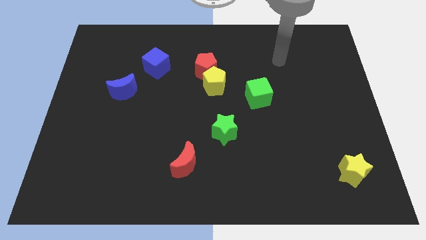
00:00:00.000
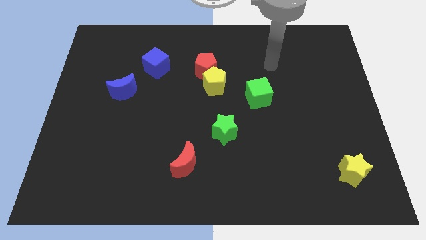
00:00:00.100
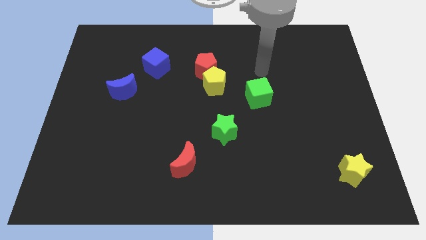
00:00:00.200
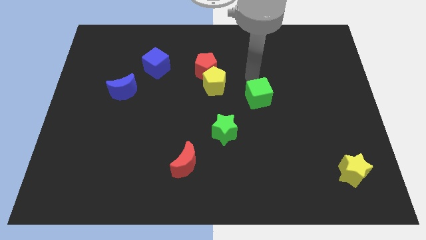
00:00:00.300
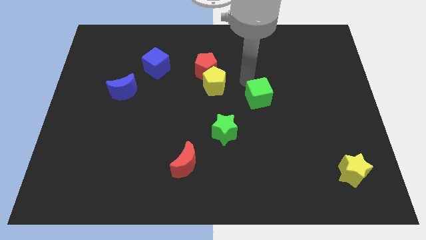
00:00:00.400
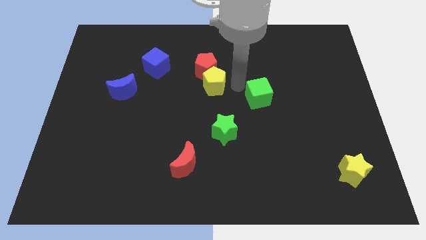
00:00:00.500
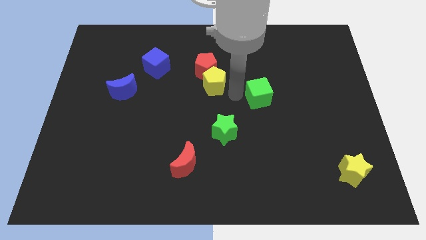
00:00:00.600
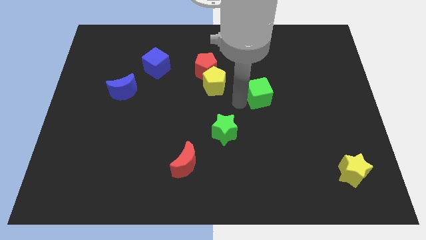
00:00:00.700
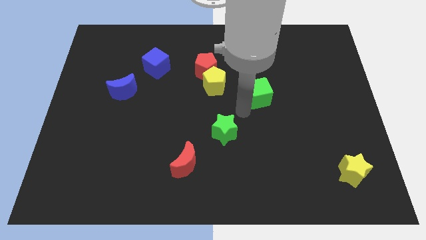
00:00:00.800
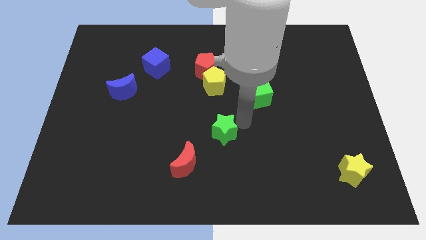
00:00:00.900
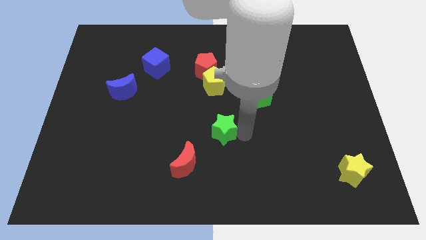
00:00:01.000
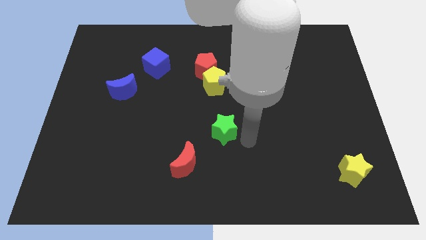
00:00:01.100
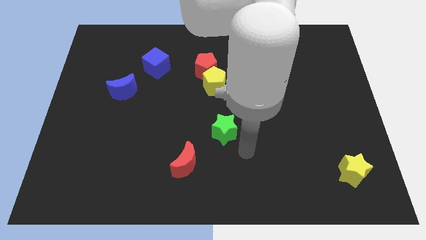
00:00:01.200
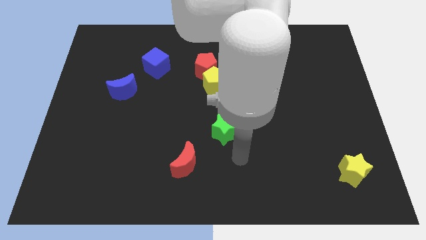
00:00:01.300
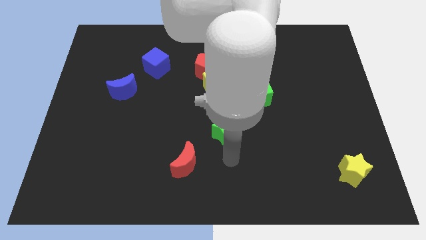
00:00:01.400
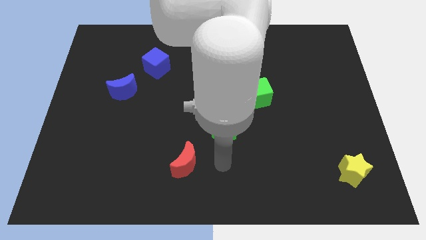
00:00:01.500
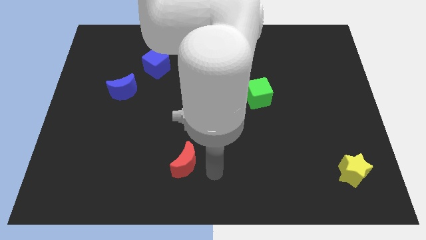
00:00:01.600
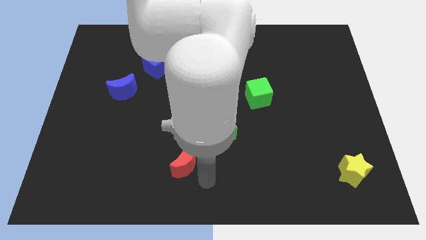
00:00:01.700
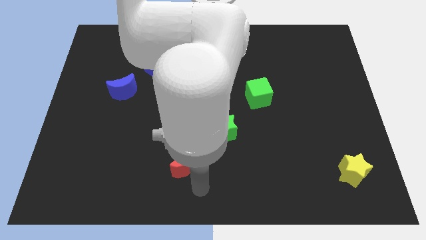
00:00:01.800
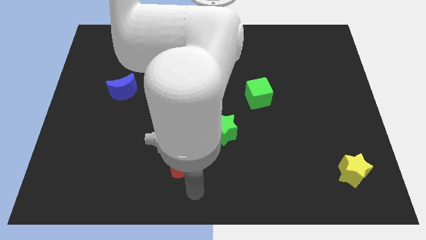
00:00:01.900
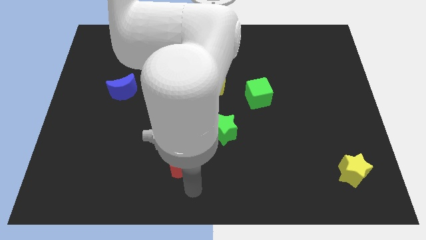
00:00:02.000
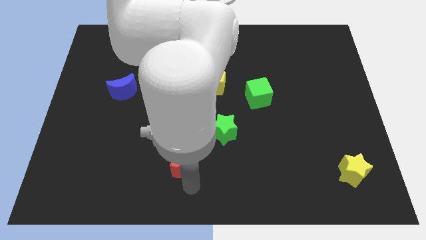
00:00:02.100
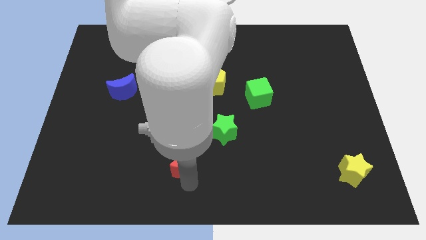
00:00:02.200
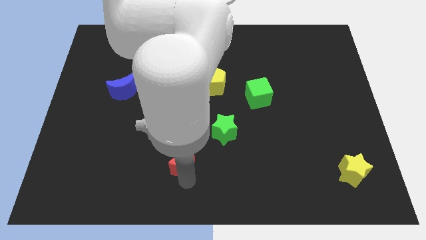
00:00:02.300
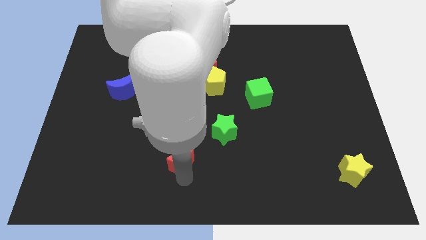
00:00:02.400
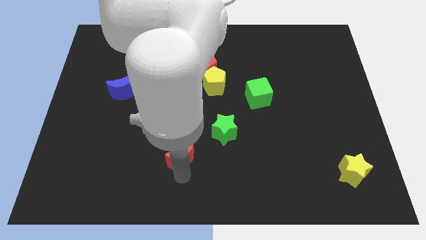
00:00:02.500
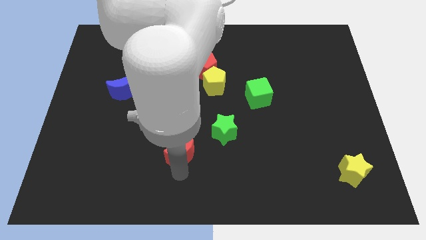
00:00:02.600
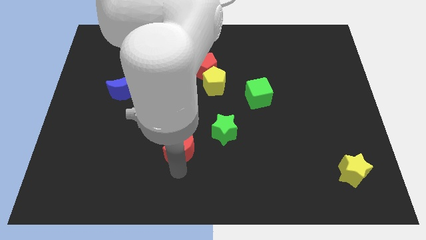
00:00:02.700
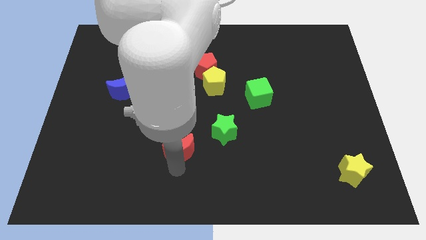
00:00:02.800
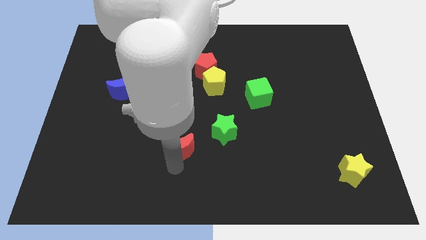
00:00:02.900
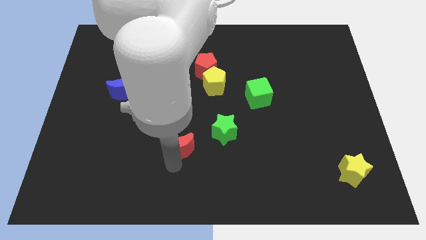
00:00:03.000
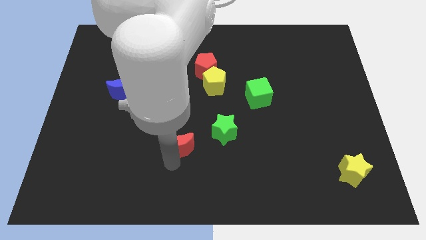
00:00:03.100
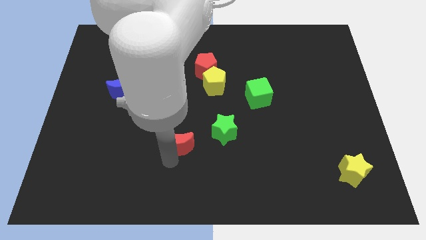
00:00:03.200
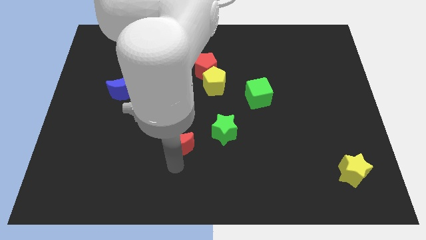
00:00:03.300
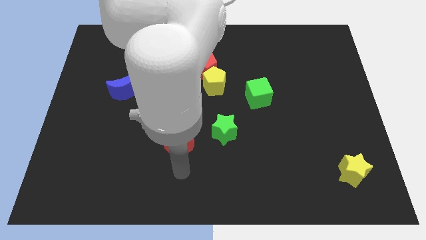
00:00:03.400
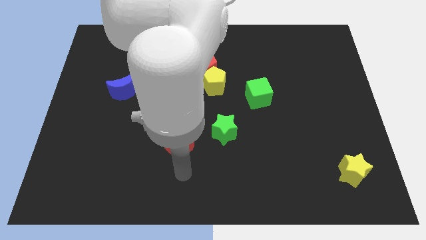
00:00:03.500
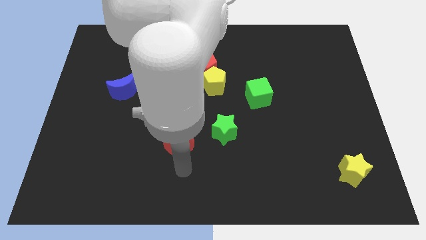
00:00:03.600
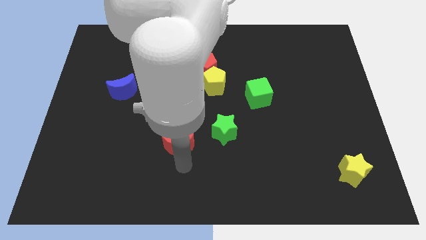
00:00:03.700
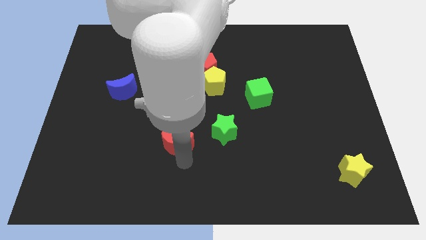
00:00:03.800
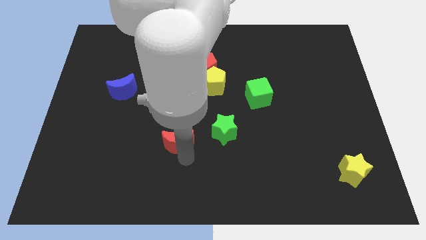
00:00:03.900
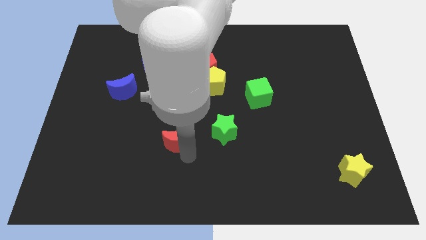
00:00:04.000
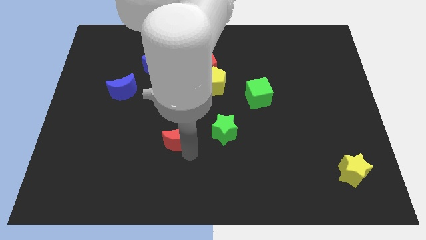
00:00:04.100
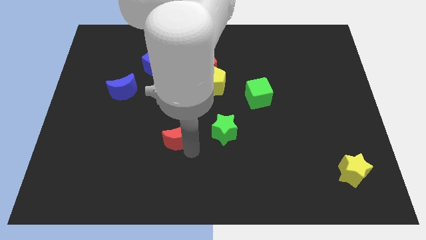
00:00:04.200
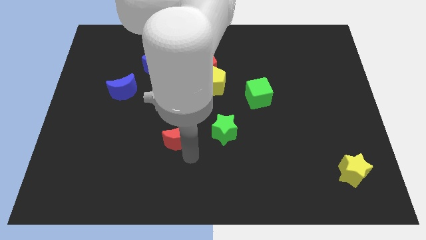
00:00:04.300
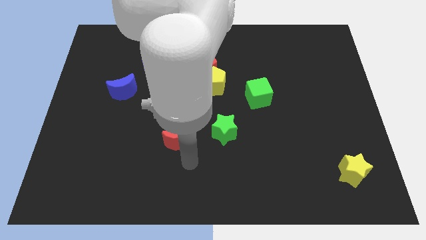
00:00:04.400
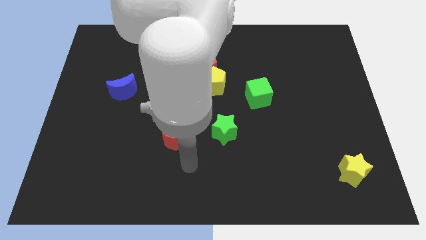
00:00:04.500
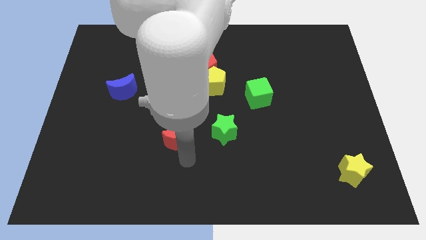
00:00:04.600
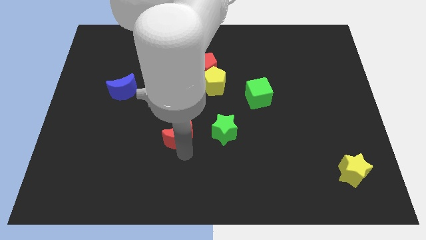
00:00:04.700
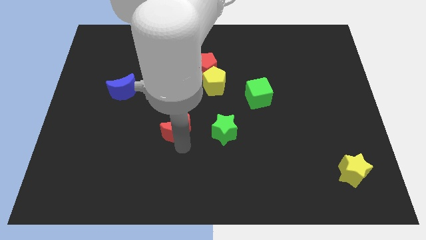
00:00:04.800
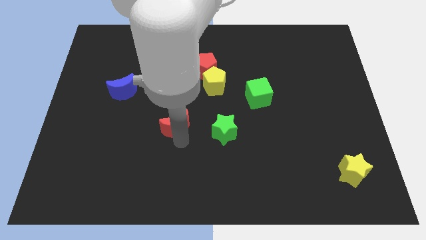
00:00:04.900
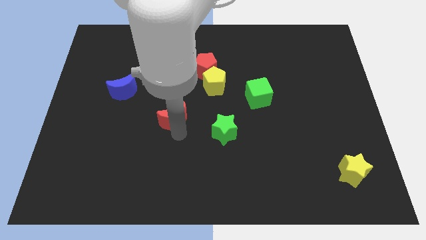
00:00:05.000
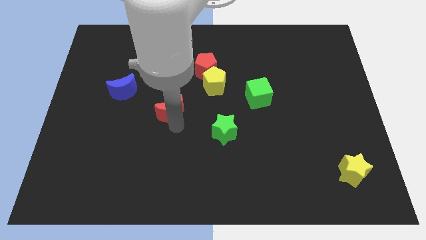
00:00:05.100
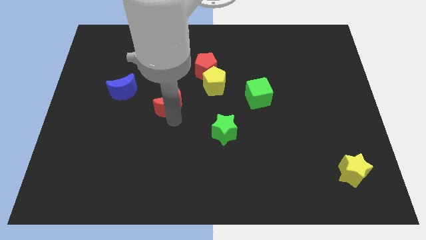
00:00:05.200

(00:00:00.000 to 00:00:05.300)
push the red moon to the right of the blue moon
